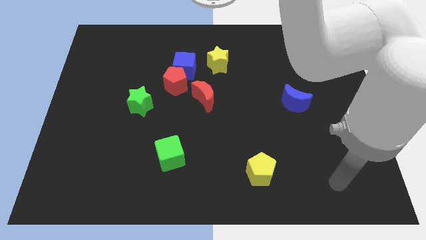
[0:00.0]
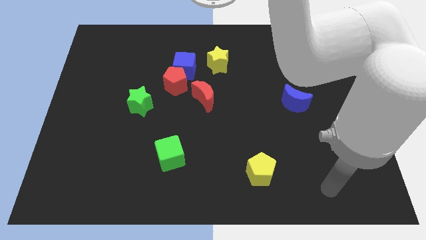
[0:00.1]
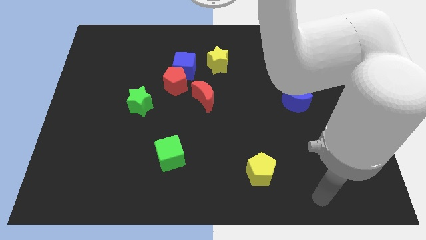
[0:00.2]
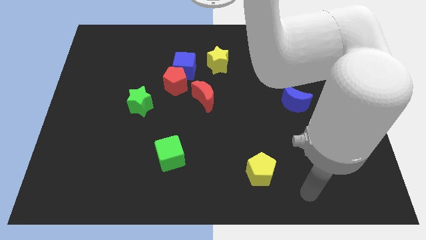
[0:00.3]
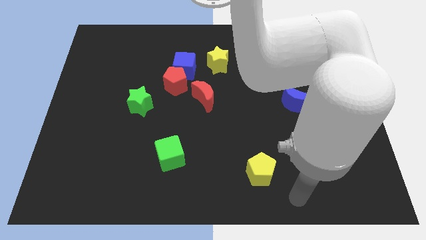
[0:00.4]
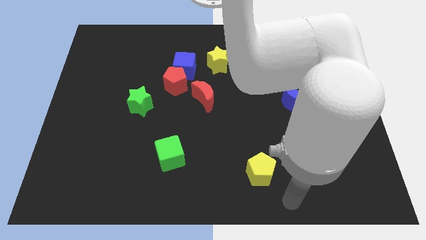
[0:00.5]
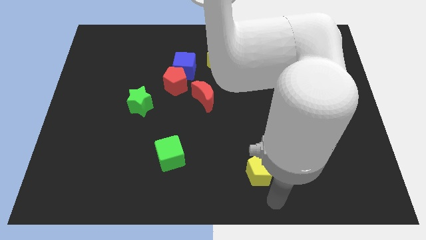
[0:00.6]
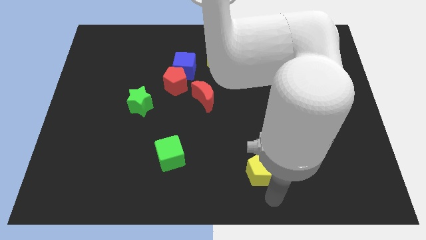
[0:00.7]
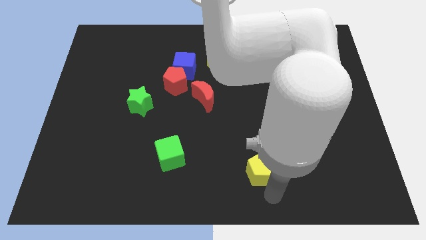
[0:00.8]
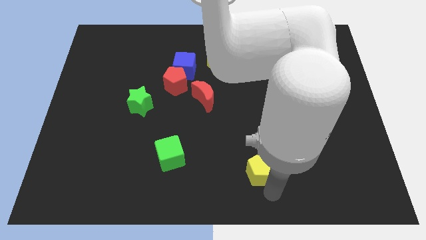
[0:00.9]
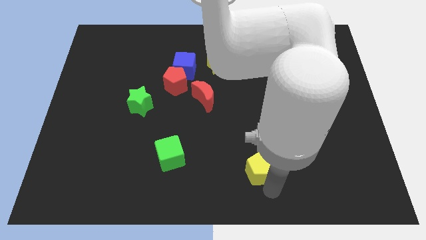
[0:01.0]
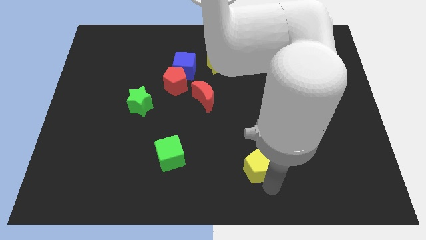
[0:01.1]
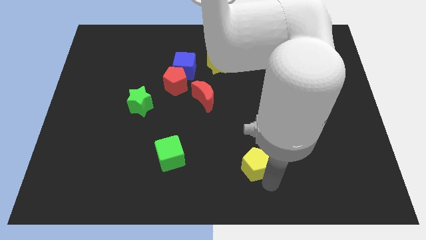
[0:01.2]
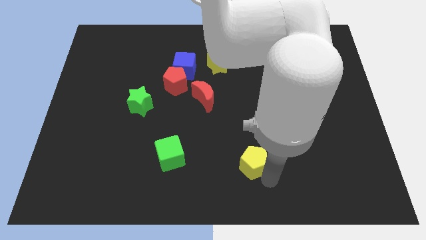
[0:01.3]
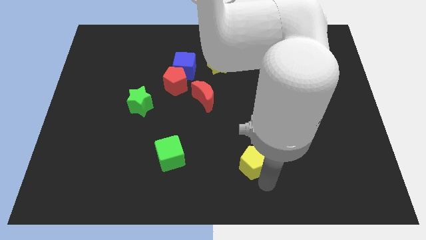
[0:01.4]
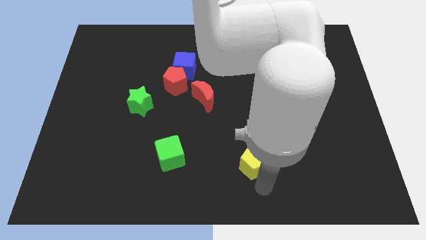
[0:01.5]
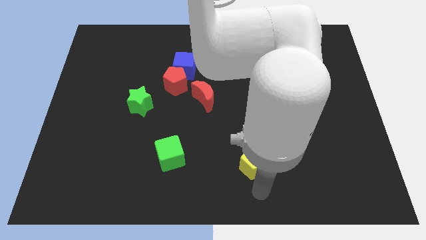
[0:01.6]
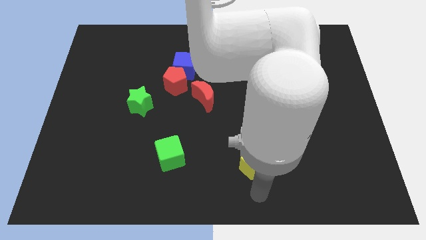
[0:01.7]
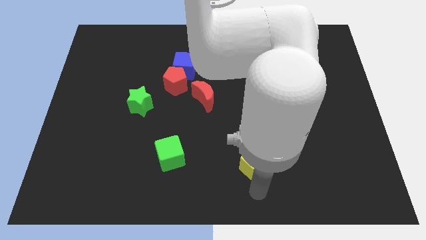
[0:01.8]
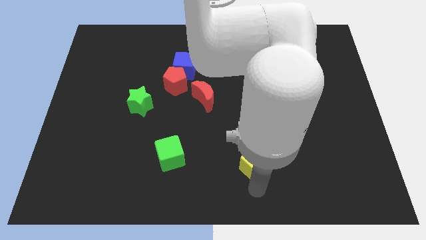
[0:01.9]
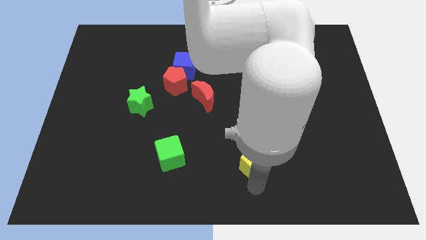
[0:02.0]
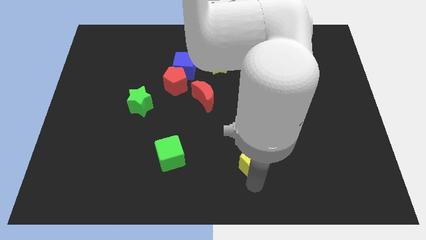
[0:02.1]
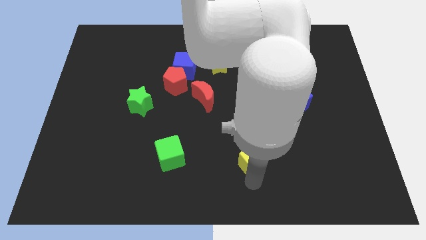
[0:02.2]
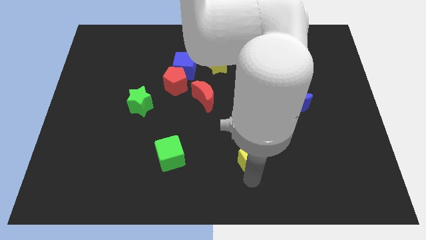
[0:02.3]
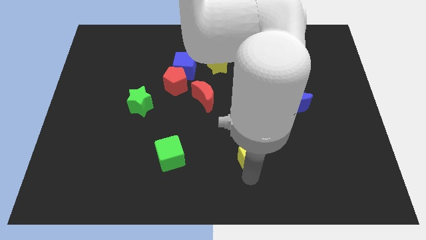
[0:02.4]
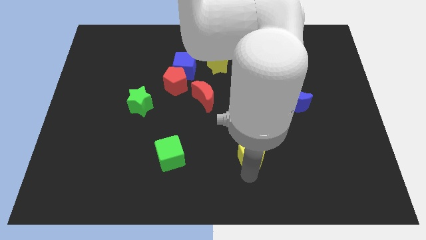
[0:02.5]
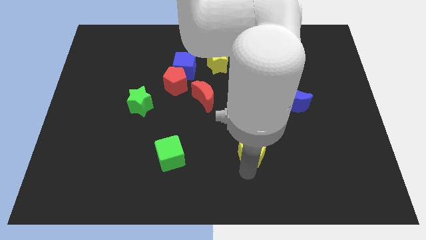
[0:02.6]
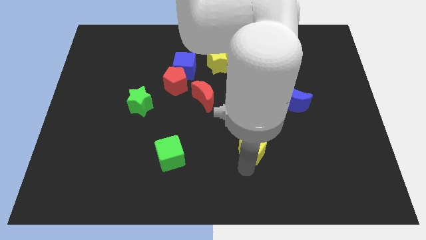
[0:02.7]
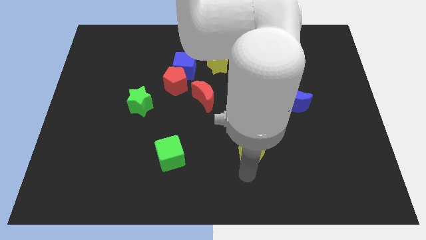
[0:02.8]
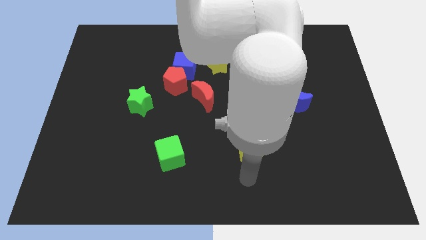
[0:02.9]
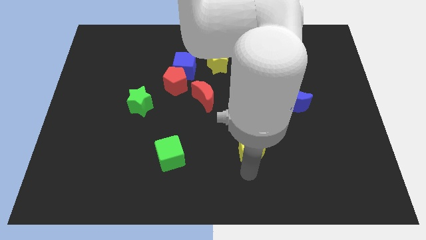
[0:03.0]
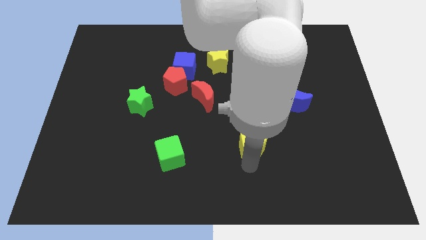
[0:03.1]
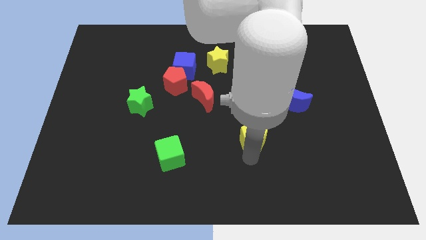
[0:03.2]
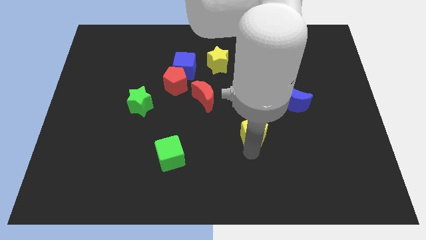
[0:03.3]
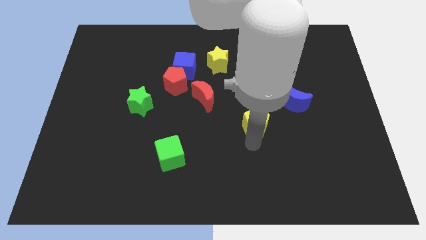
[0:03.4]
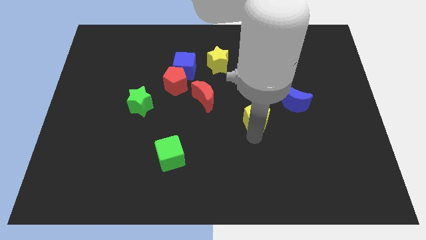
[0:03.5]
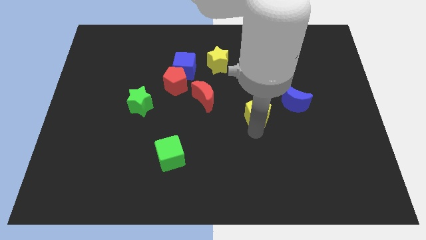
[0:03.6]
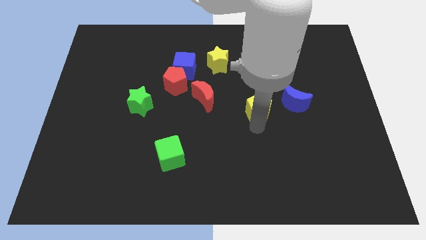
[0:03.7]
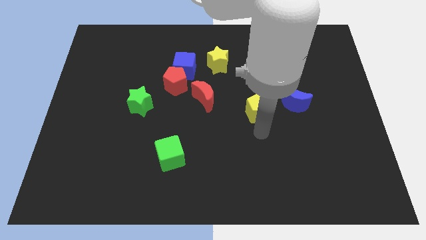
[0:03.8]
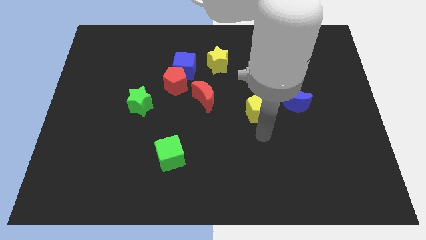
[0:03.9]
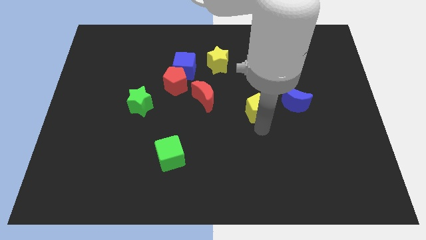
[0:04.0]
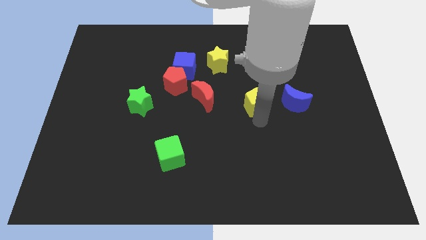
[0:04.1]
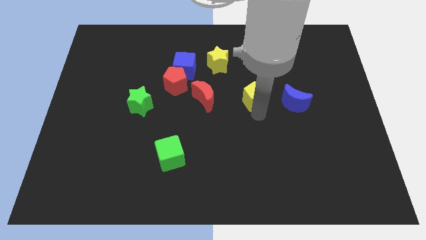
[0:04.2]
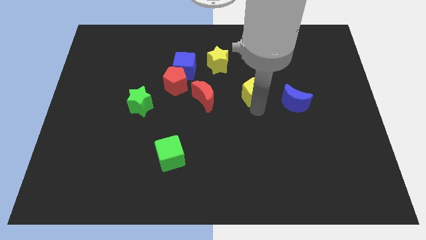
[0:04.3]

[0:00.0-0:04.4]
push the yellow pentagon up

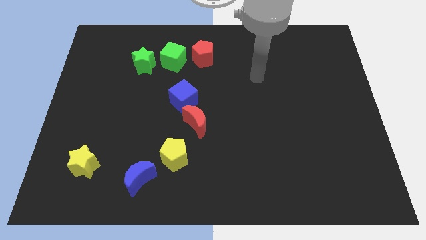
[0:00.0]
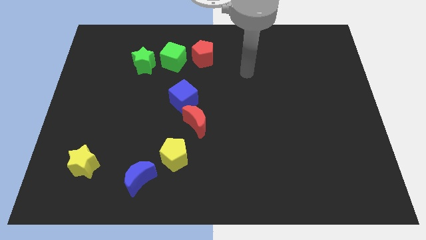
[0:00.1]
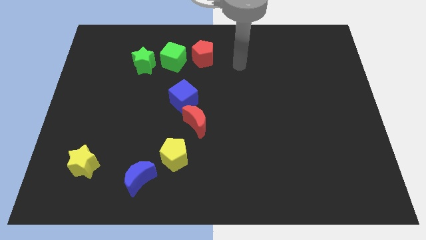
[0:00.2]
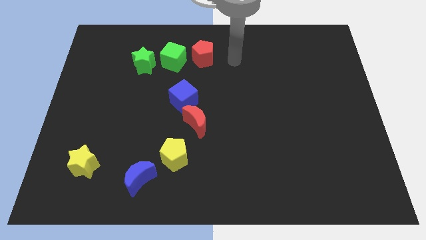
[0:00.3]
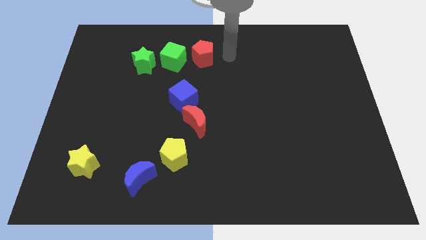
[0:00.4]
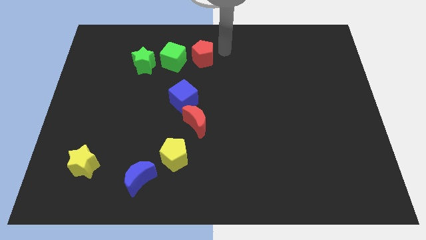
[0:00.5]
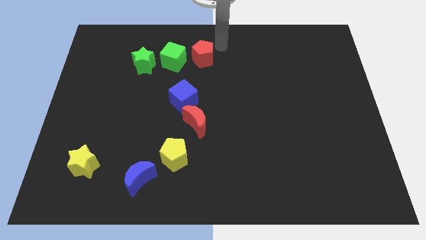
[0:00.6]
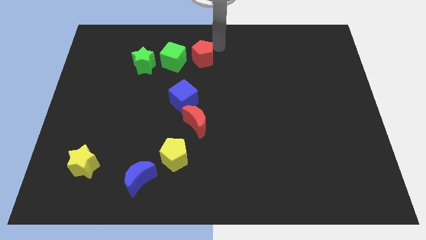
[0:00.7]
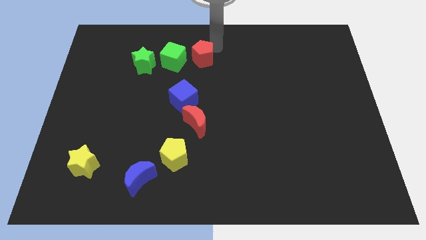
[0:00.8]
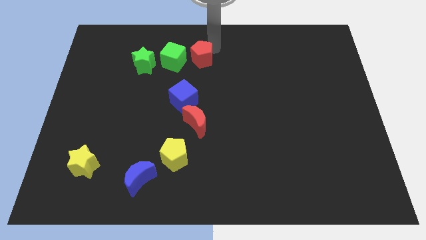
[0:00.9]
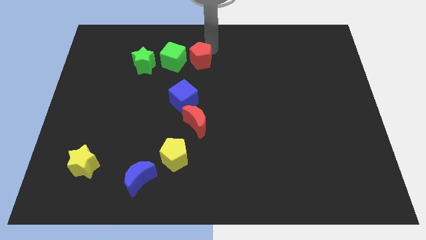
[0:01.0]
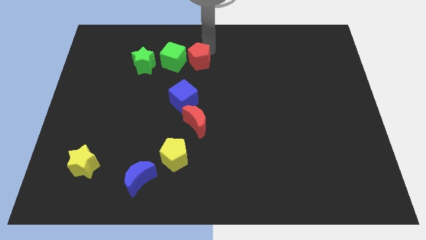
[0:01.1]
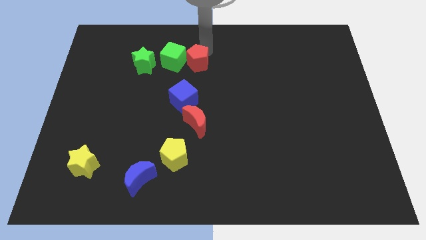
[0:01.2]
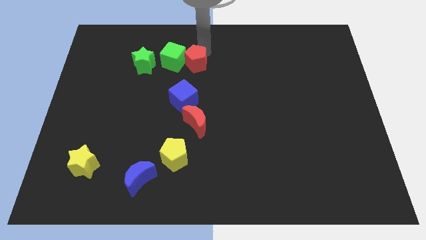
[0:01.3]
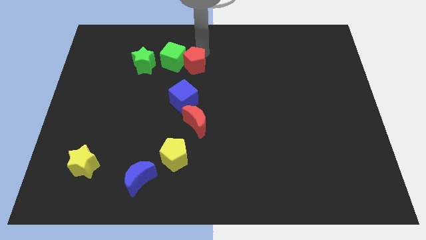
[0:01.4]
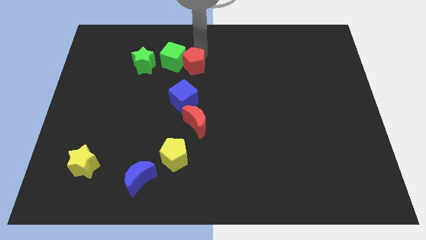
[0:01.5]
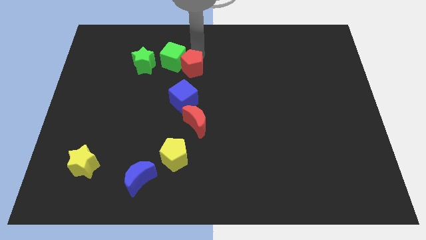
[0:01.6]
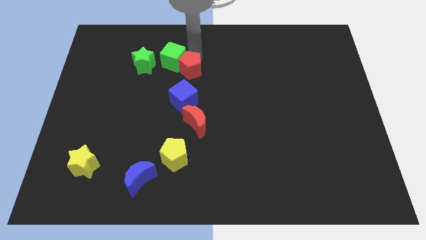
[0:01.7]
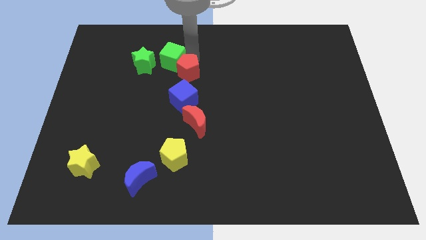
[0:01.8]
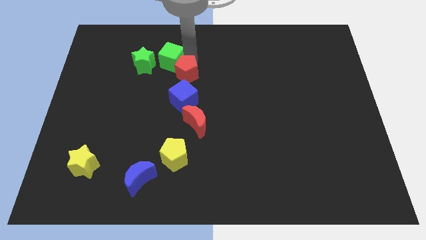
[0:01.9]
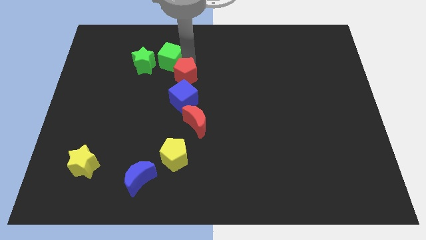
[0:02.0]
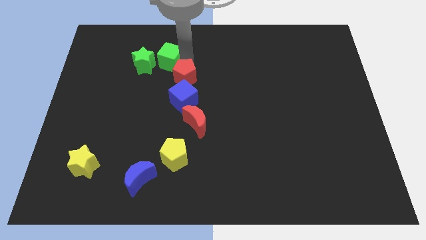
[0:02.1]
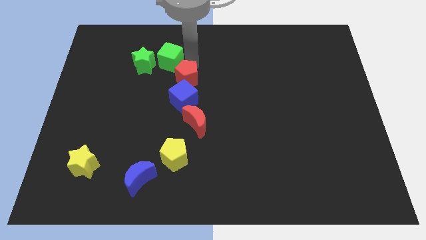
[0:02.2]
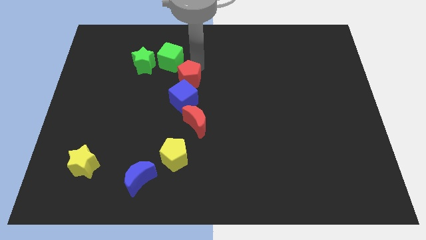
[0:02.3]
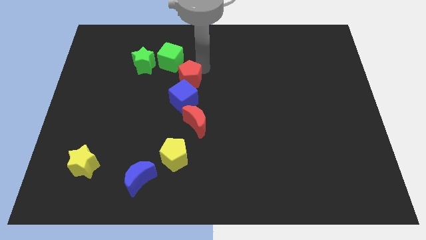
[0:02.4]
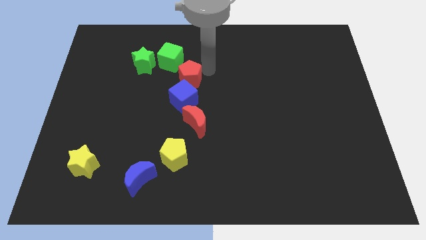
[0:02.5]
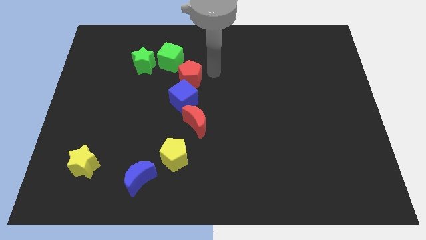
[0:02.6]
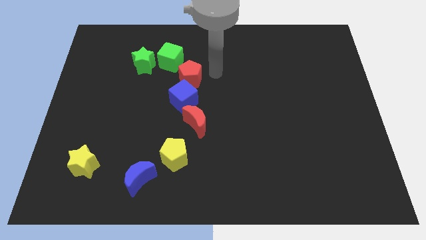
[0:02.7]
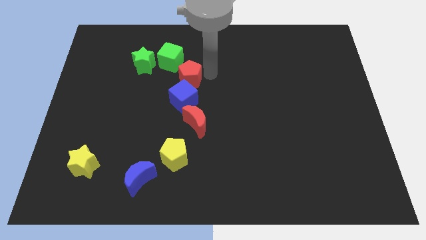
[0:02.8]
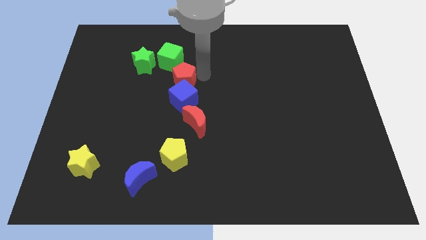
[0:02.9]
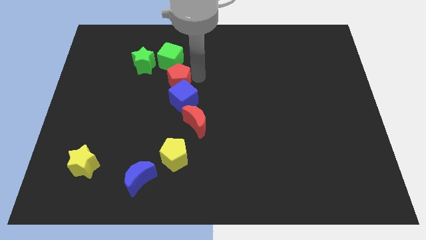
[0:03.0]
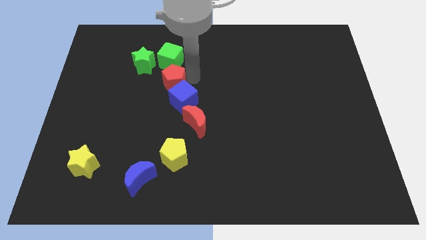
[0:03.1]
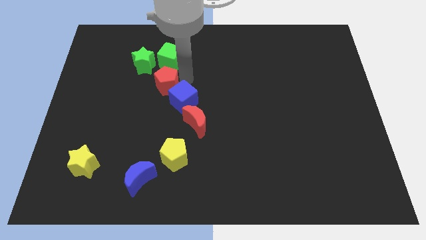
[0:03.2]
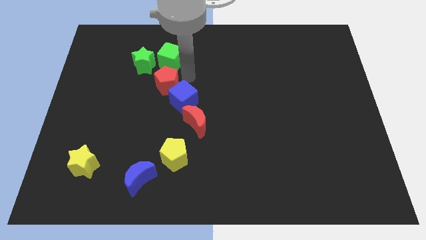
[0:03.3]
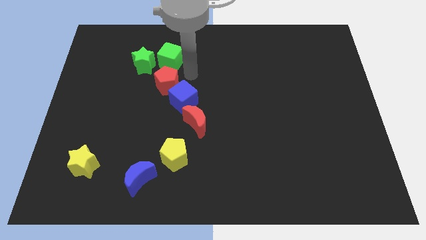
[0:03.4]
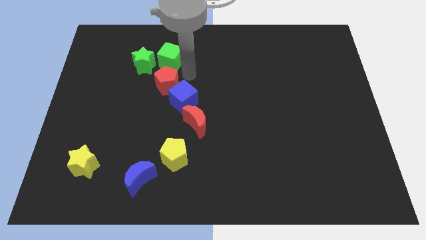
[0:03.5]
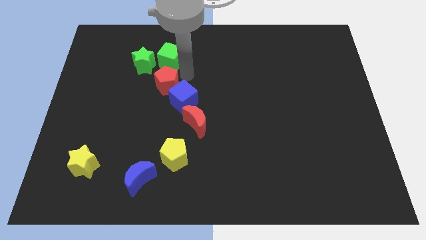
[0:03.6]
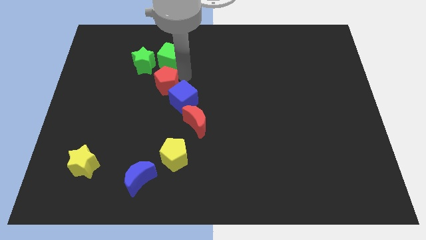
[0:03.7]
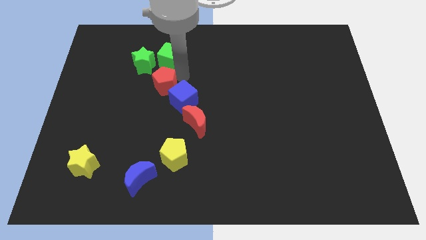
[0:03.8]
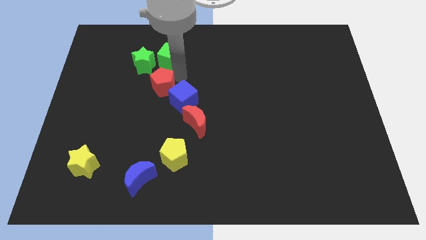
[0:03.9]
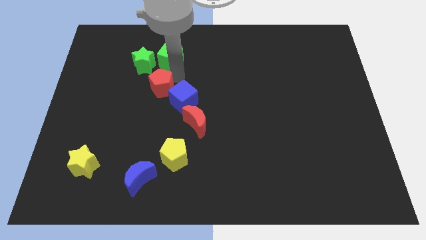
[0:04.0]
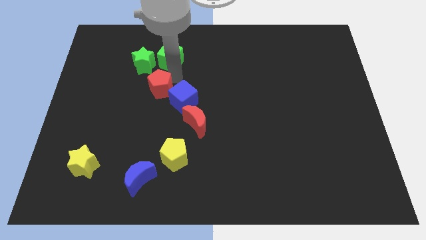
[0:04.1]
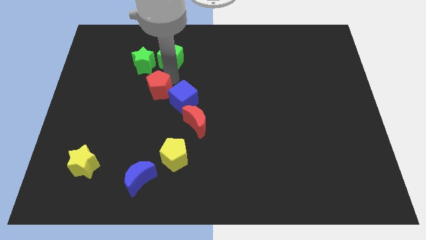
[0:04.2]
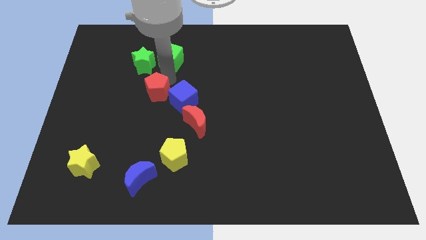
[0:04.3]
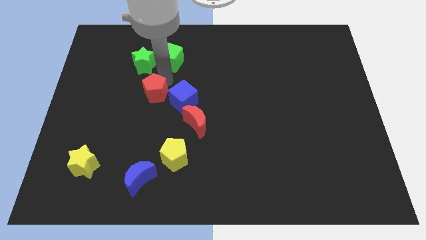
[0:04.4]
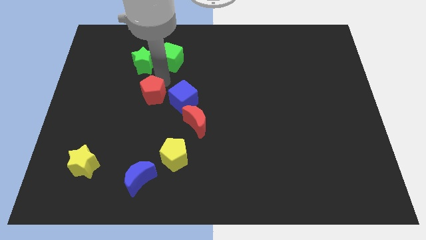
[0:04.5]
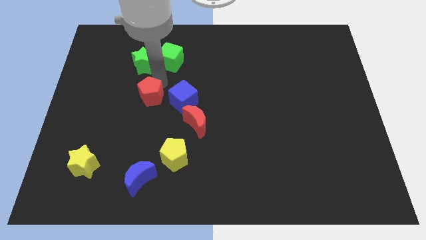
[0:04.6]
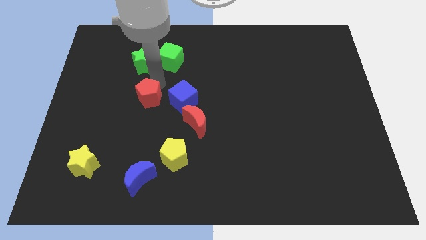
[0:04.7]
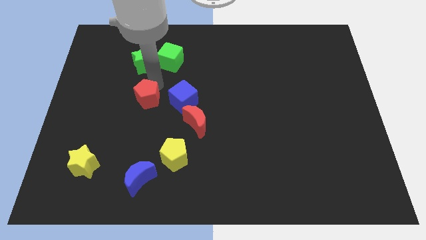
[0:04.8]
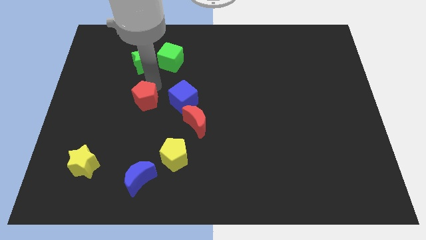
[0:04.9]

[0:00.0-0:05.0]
move the red pentagon downwards and to the left diagonally
